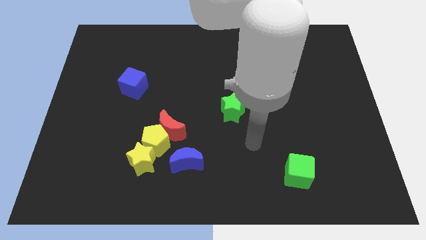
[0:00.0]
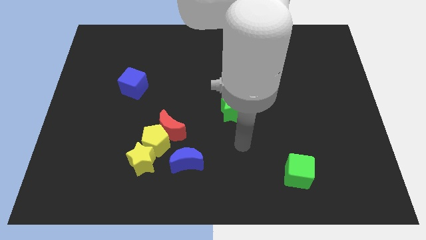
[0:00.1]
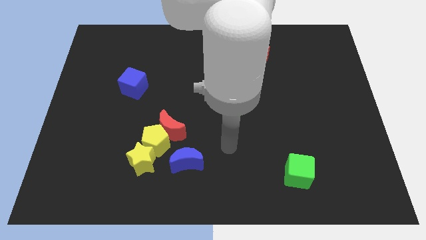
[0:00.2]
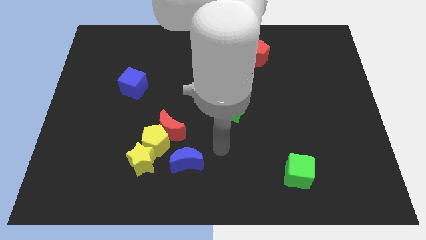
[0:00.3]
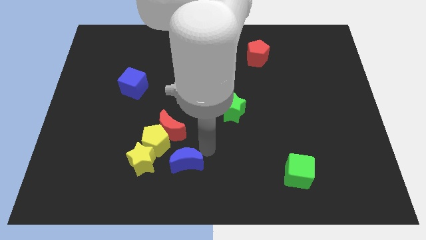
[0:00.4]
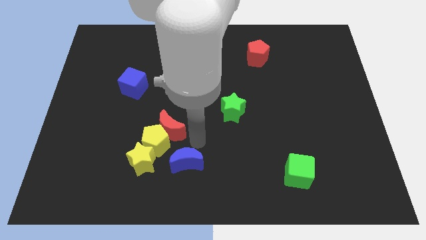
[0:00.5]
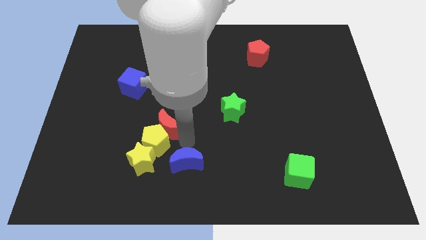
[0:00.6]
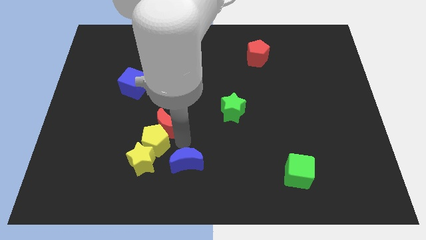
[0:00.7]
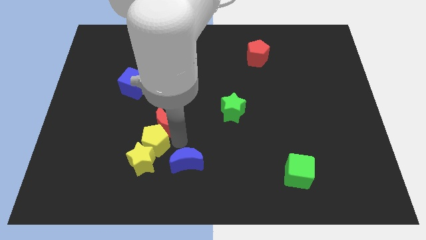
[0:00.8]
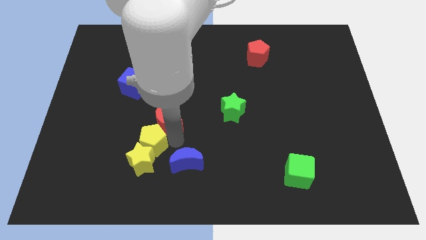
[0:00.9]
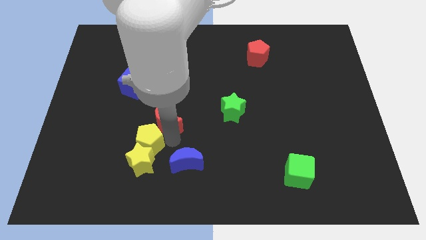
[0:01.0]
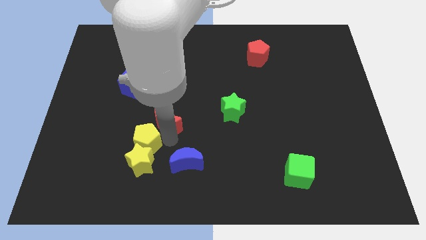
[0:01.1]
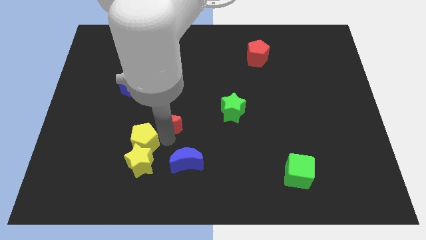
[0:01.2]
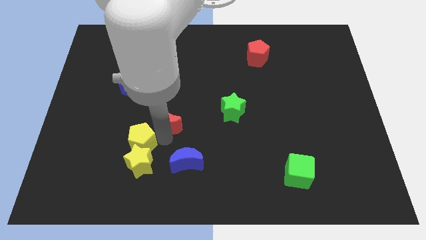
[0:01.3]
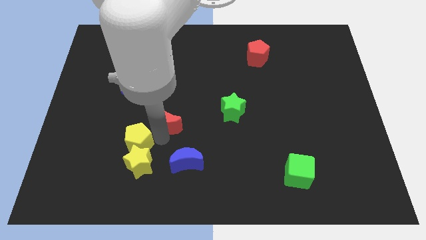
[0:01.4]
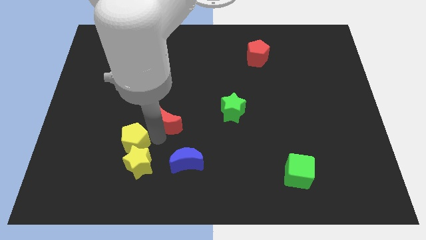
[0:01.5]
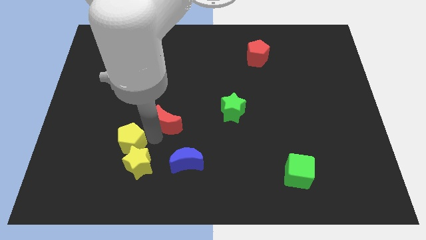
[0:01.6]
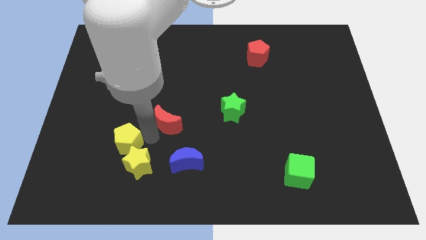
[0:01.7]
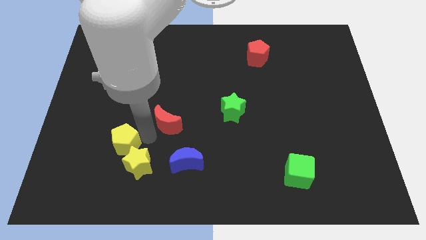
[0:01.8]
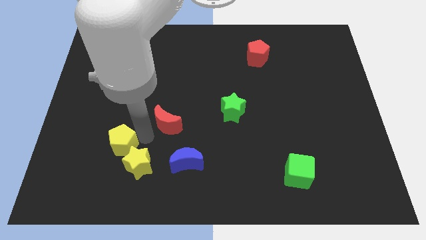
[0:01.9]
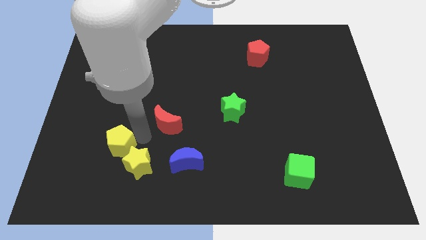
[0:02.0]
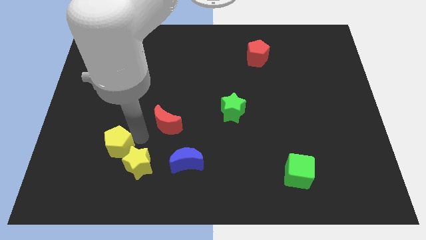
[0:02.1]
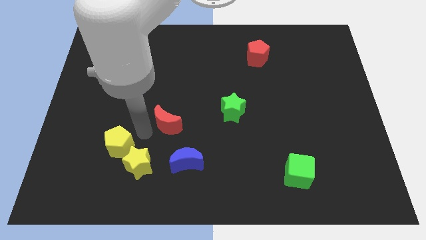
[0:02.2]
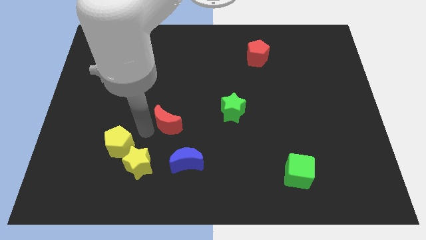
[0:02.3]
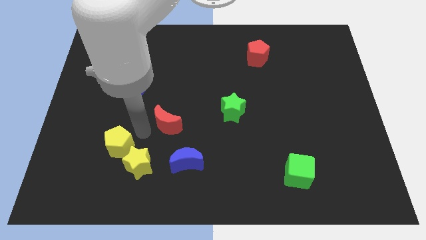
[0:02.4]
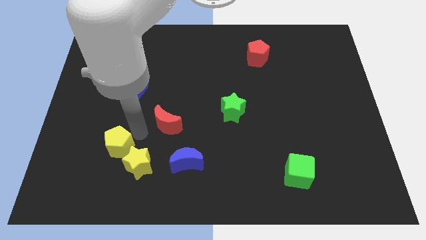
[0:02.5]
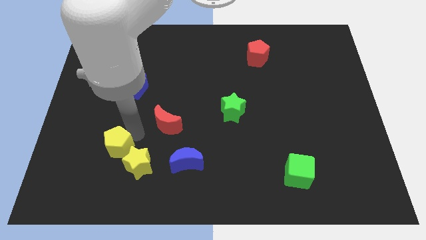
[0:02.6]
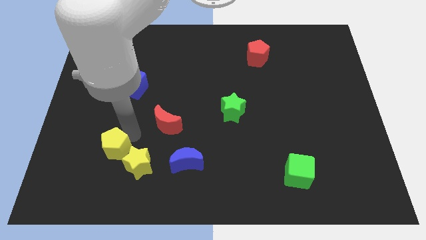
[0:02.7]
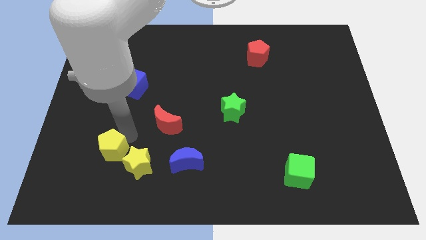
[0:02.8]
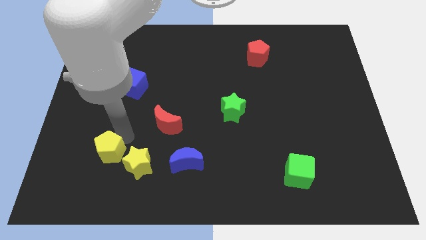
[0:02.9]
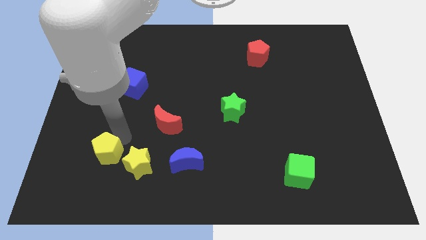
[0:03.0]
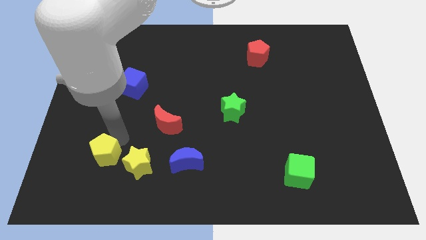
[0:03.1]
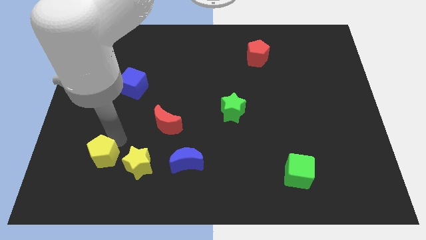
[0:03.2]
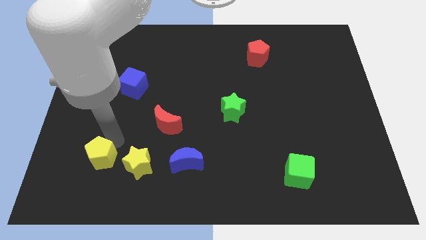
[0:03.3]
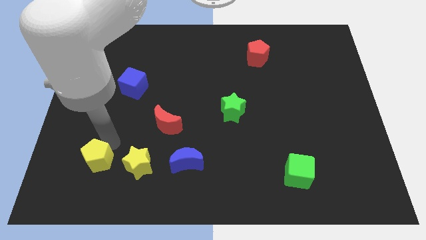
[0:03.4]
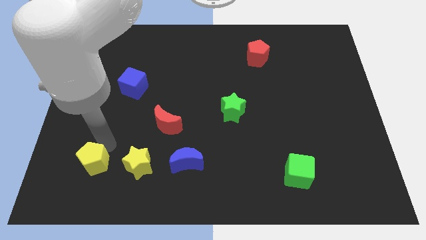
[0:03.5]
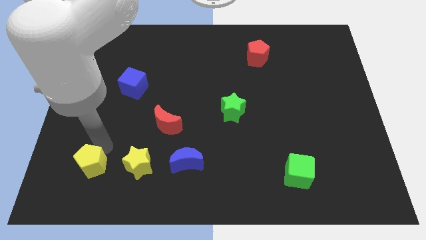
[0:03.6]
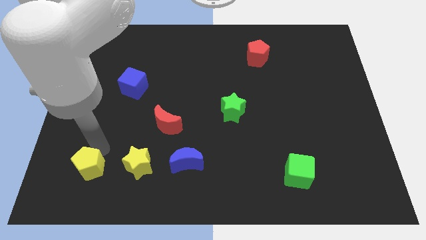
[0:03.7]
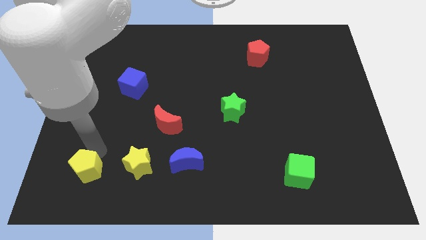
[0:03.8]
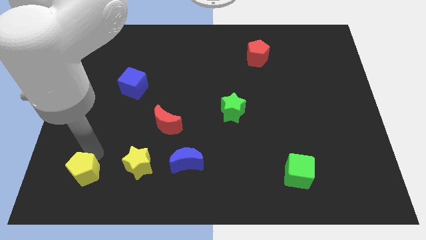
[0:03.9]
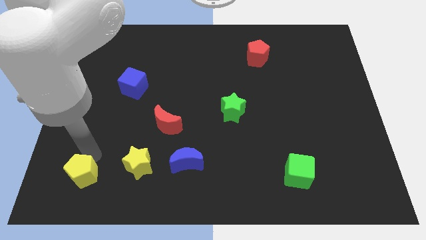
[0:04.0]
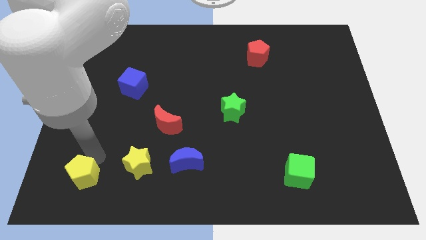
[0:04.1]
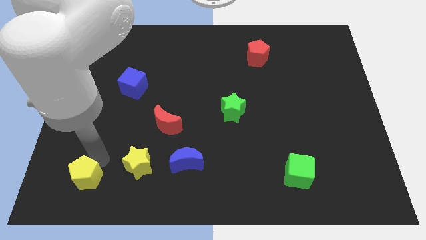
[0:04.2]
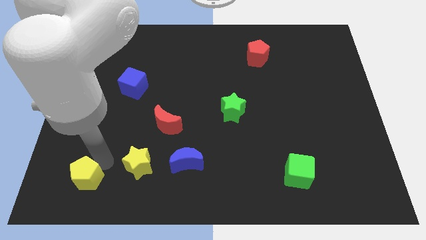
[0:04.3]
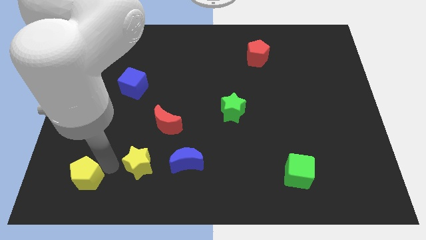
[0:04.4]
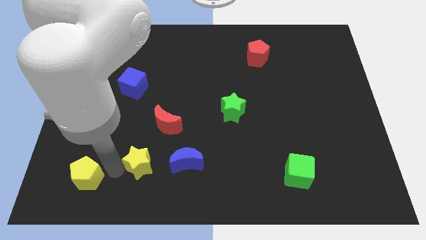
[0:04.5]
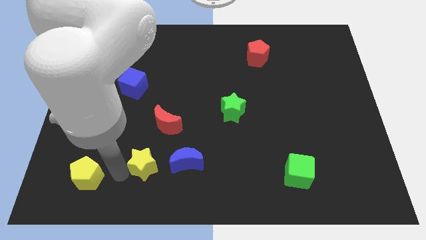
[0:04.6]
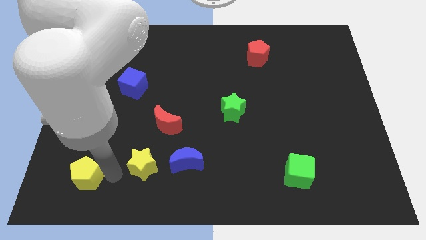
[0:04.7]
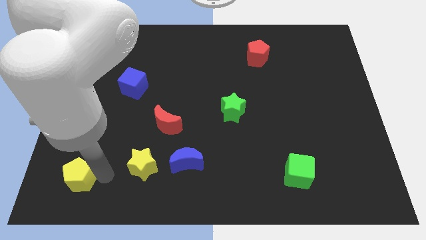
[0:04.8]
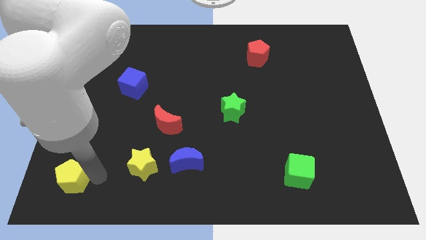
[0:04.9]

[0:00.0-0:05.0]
put the yellow pentagon to the bottom left

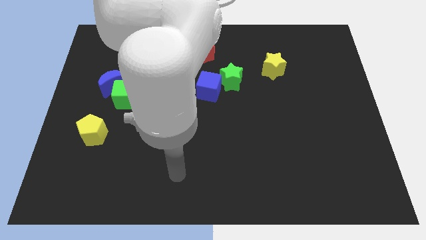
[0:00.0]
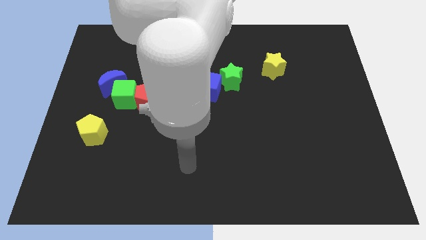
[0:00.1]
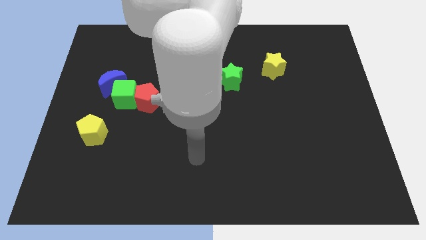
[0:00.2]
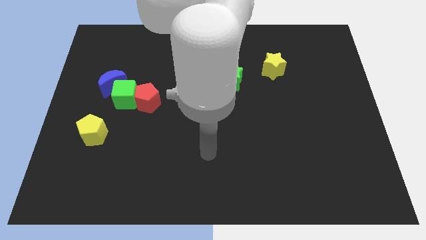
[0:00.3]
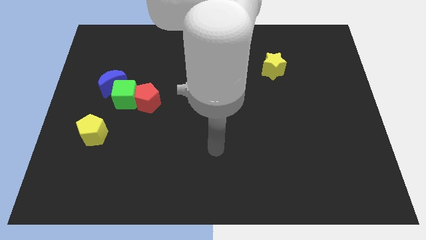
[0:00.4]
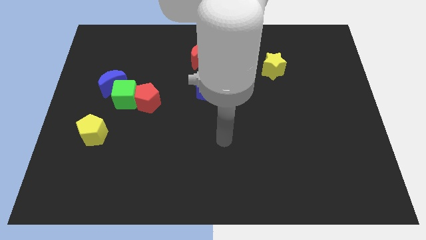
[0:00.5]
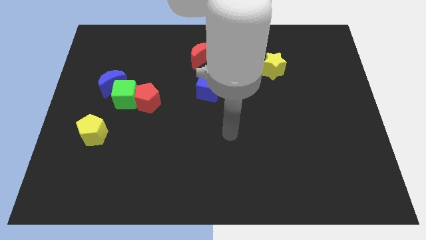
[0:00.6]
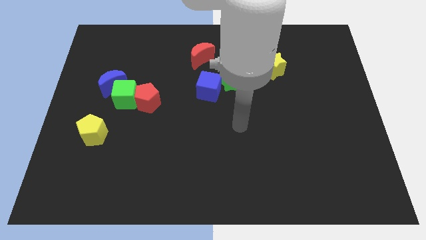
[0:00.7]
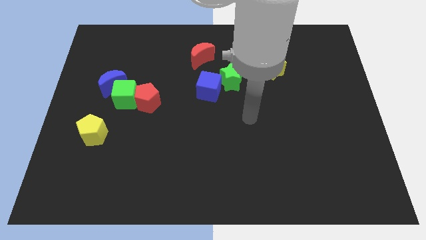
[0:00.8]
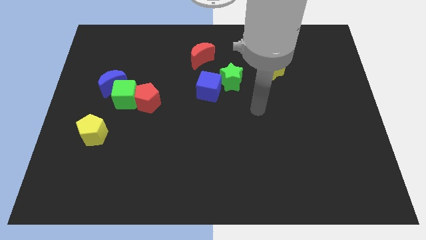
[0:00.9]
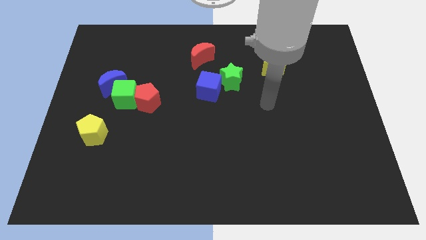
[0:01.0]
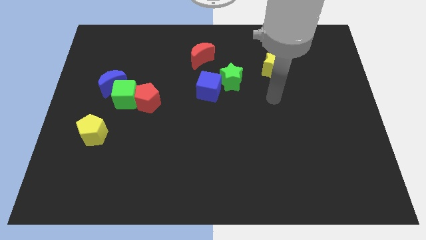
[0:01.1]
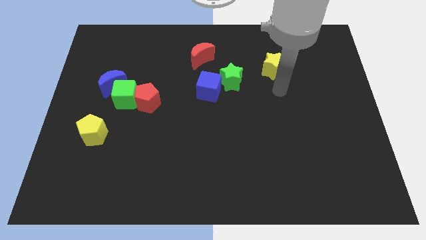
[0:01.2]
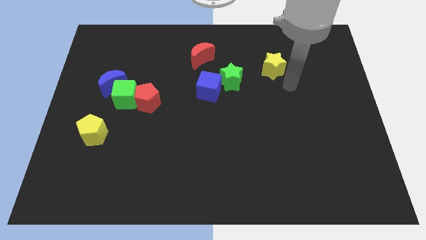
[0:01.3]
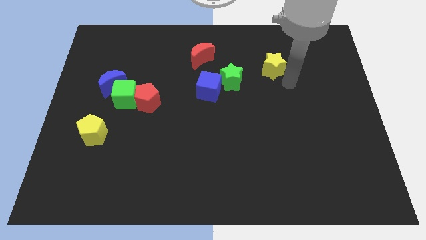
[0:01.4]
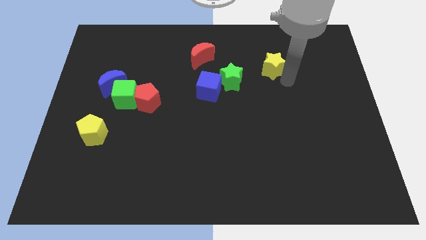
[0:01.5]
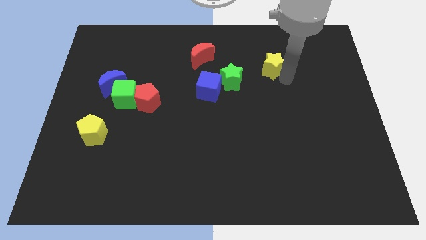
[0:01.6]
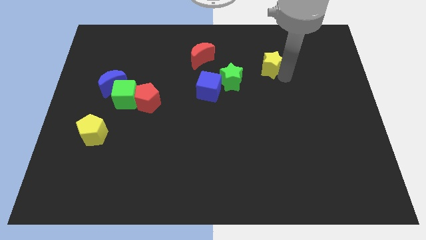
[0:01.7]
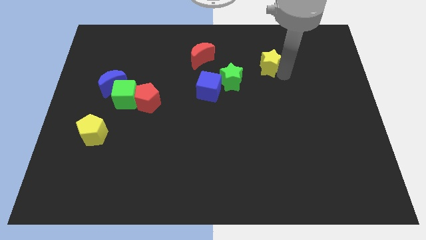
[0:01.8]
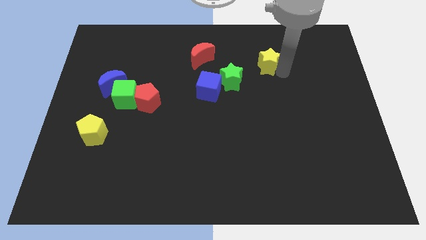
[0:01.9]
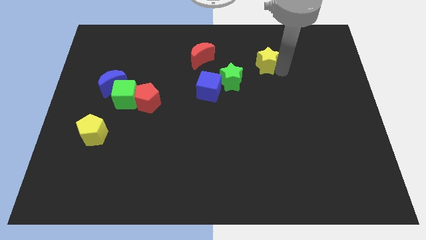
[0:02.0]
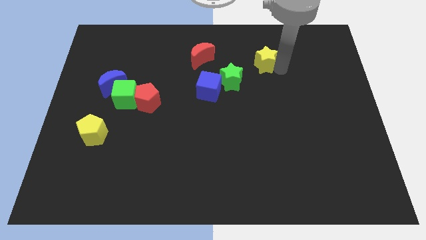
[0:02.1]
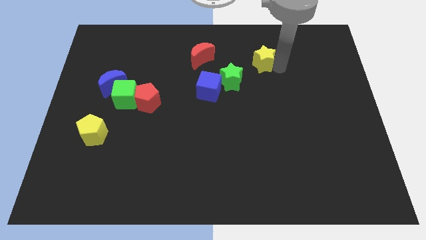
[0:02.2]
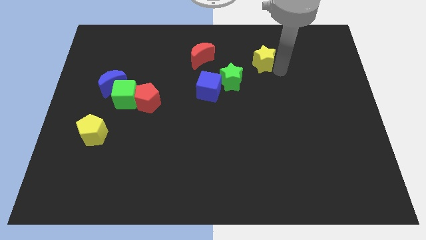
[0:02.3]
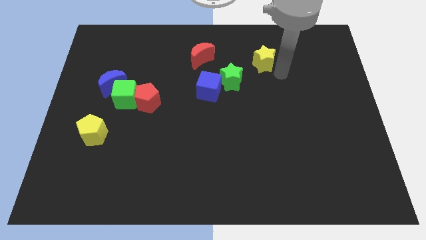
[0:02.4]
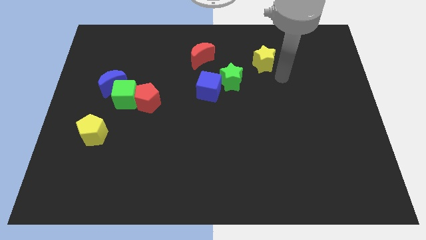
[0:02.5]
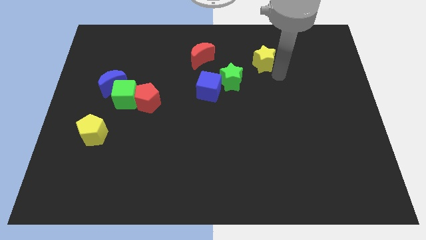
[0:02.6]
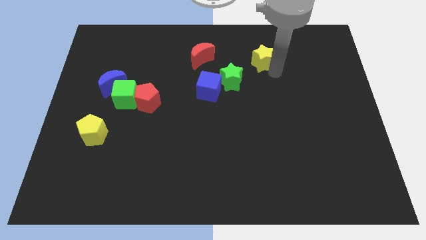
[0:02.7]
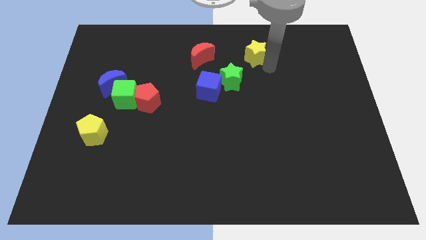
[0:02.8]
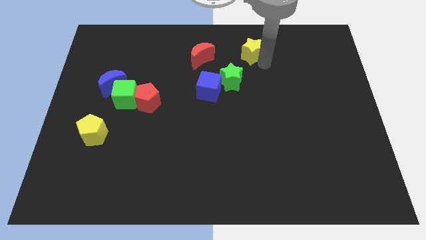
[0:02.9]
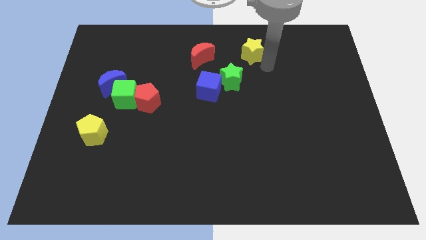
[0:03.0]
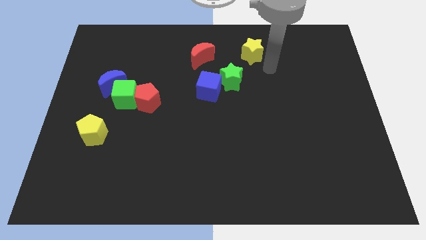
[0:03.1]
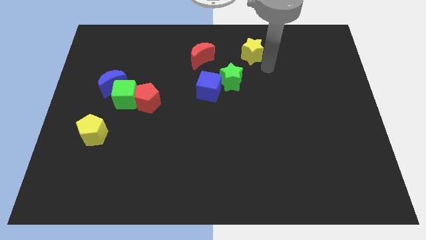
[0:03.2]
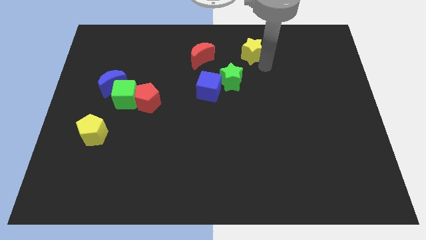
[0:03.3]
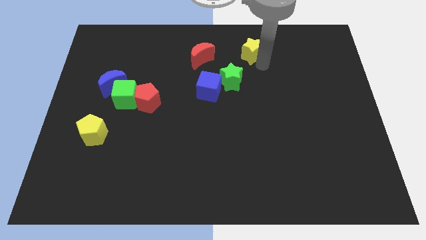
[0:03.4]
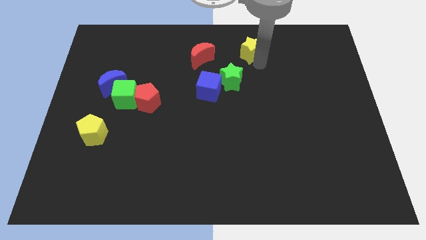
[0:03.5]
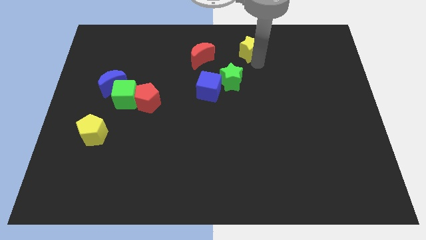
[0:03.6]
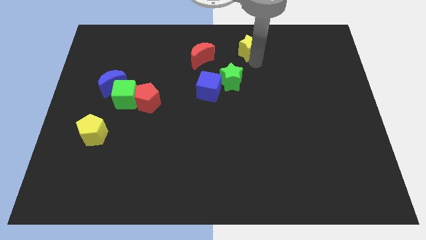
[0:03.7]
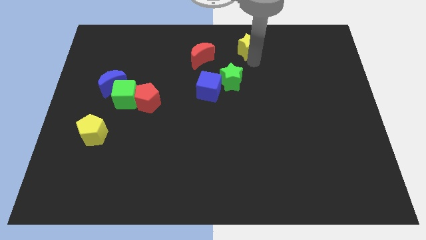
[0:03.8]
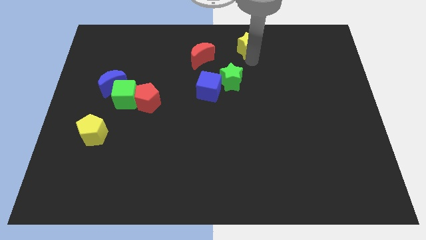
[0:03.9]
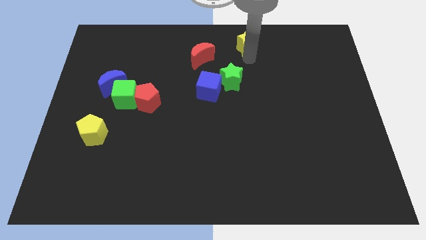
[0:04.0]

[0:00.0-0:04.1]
slide the yellow star to the towards your base
